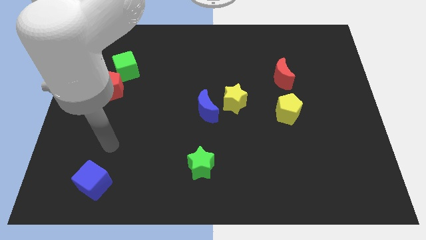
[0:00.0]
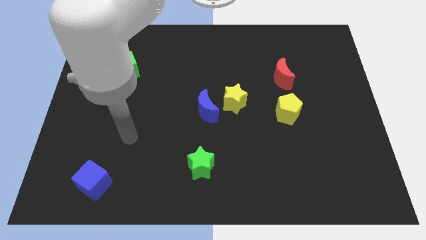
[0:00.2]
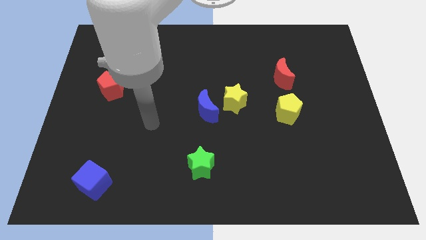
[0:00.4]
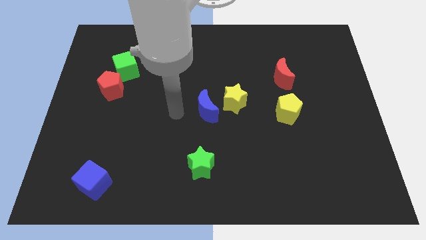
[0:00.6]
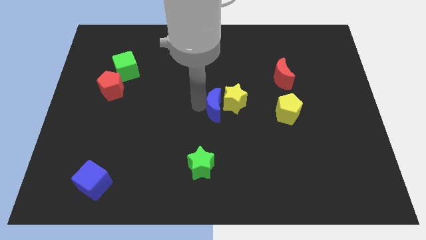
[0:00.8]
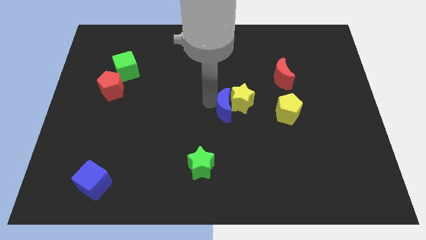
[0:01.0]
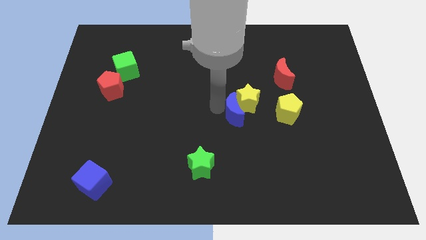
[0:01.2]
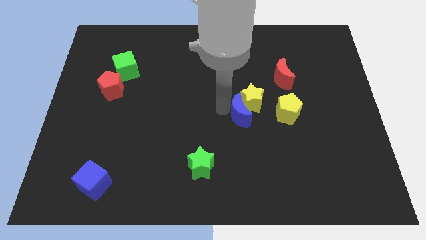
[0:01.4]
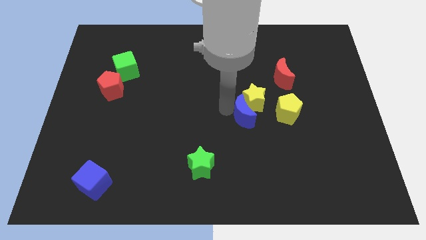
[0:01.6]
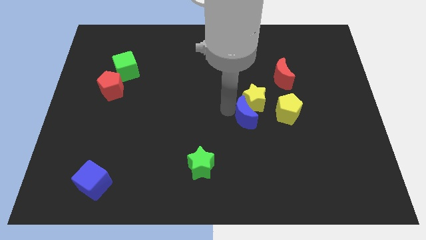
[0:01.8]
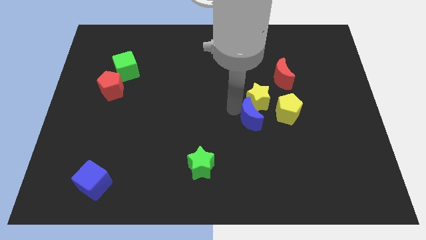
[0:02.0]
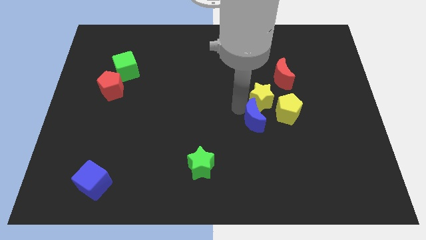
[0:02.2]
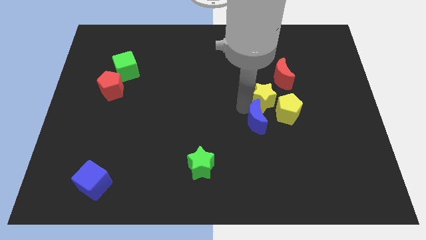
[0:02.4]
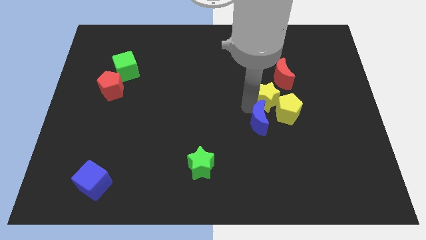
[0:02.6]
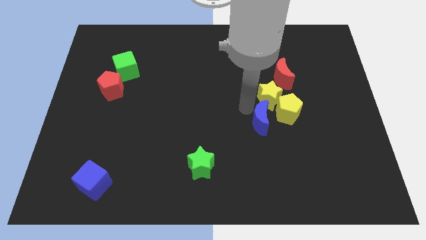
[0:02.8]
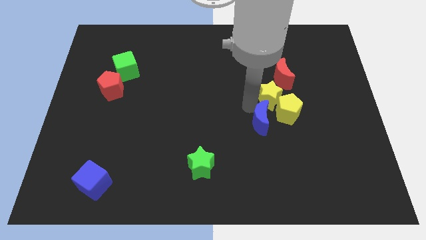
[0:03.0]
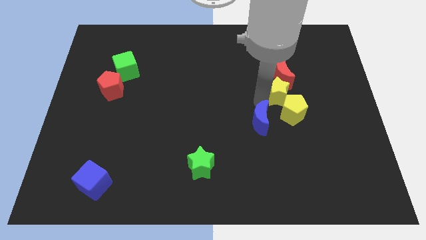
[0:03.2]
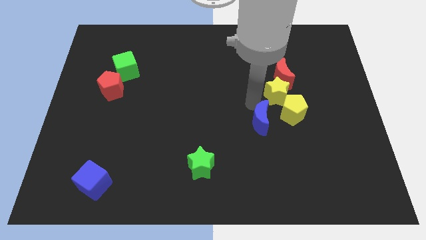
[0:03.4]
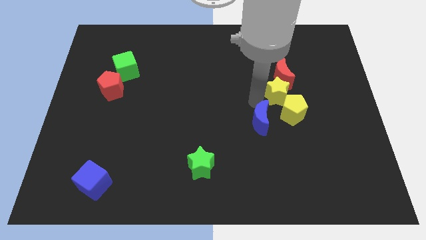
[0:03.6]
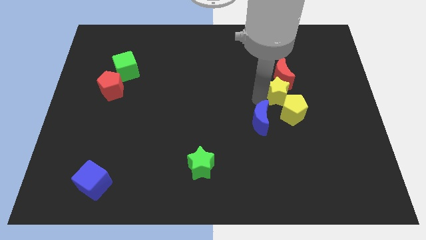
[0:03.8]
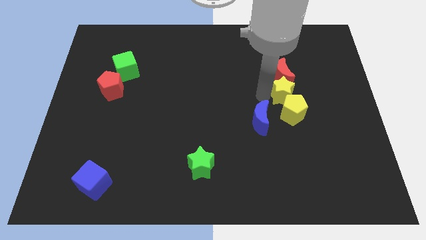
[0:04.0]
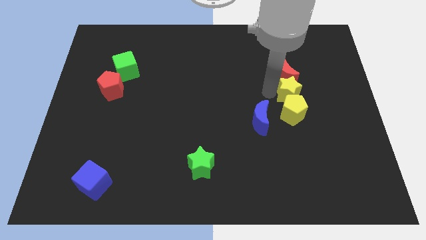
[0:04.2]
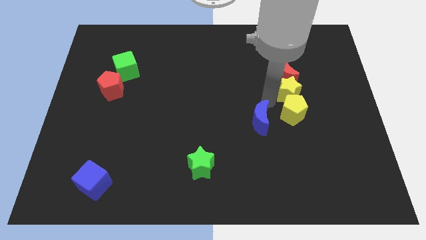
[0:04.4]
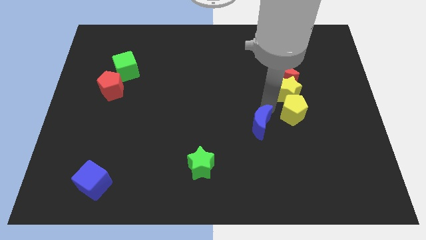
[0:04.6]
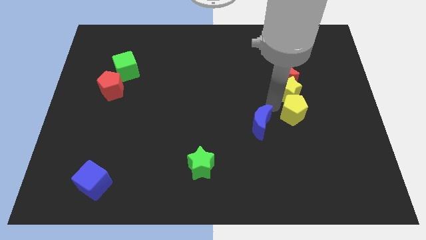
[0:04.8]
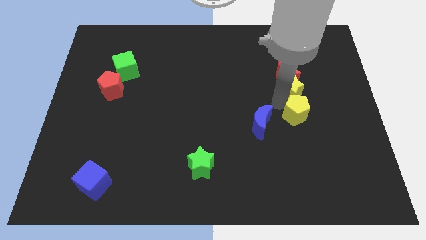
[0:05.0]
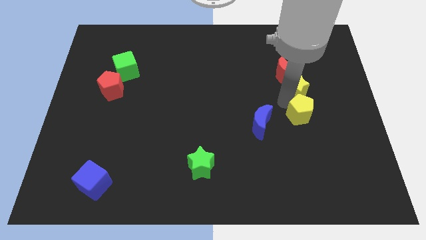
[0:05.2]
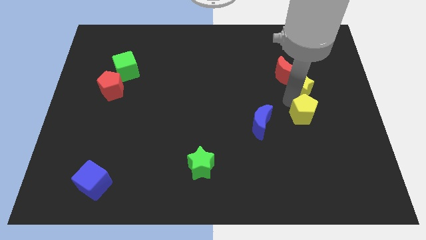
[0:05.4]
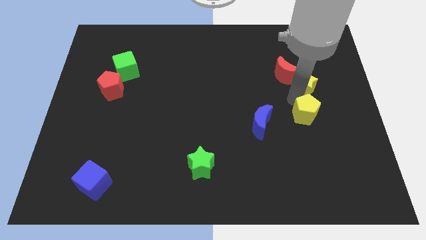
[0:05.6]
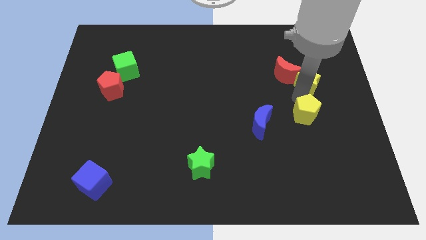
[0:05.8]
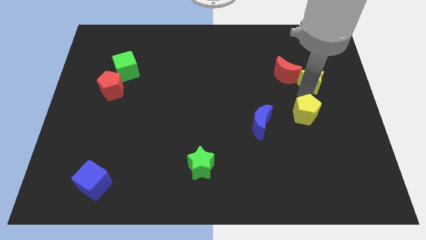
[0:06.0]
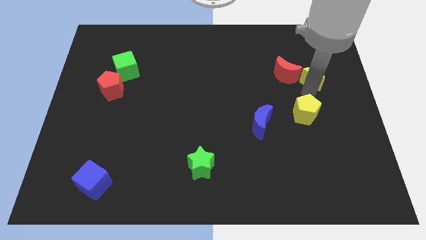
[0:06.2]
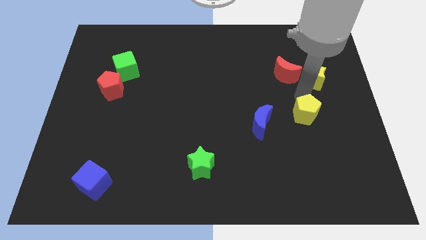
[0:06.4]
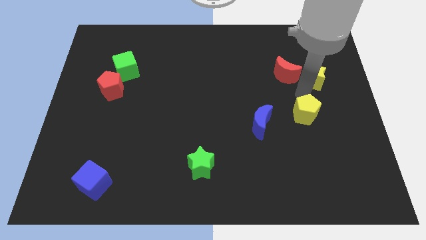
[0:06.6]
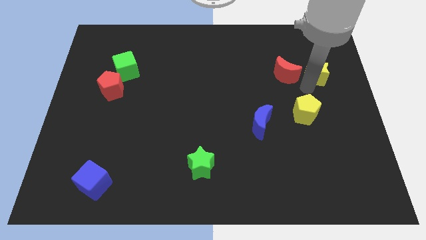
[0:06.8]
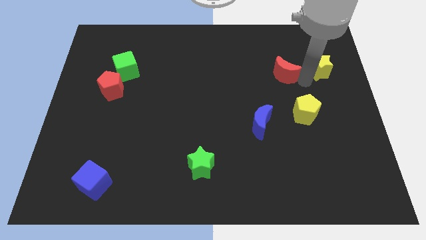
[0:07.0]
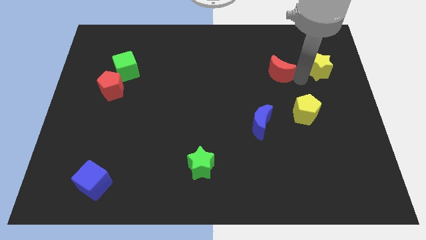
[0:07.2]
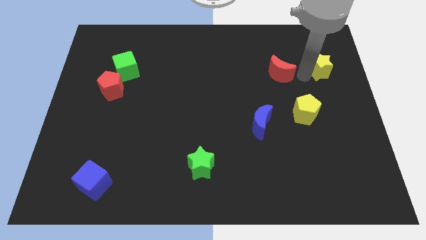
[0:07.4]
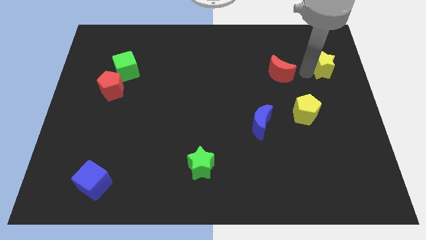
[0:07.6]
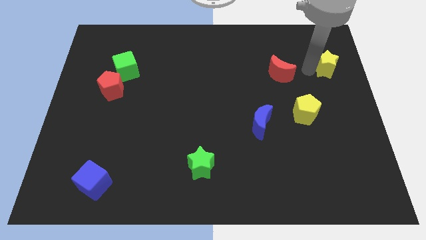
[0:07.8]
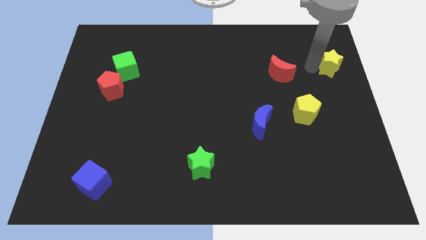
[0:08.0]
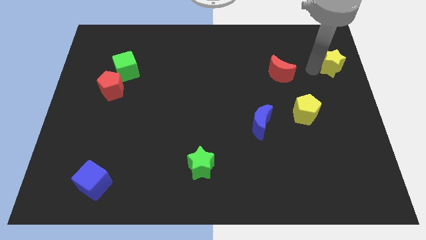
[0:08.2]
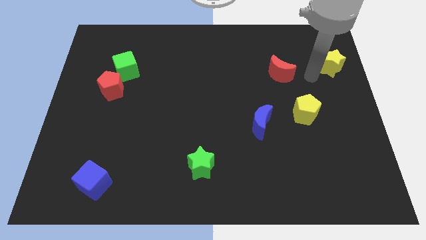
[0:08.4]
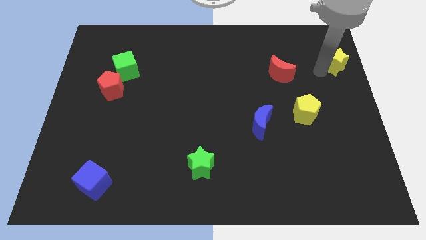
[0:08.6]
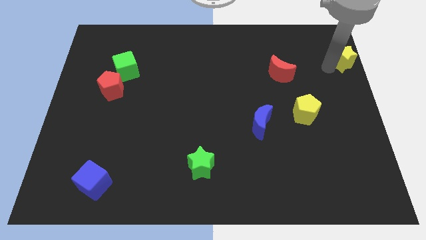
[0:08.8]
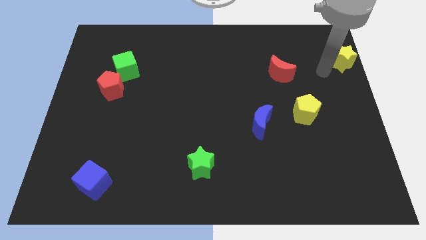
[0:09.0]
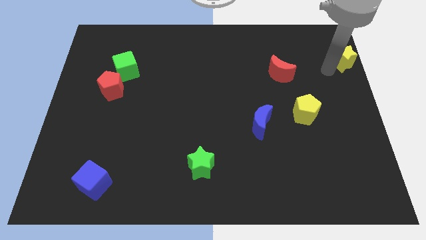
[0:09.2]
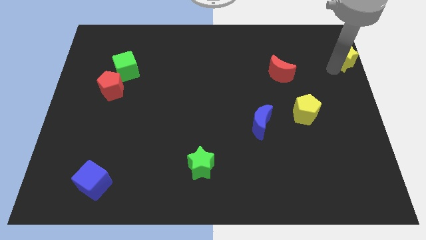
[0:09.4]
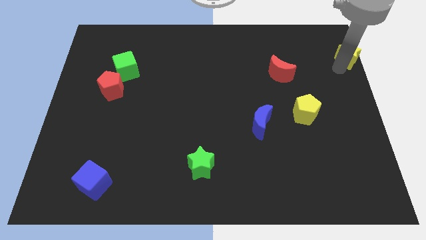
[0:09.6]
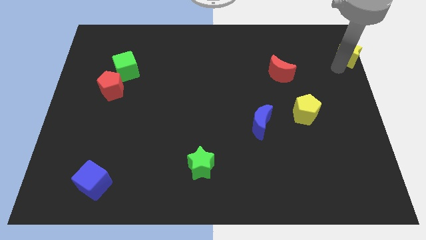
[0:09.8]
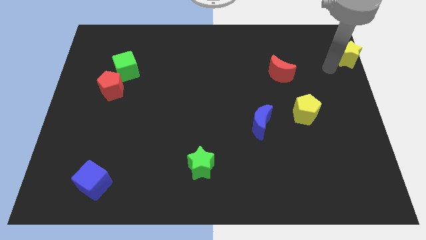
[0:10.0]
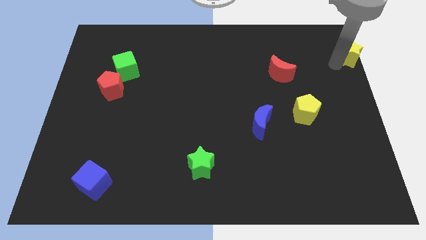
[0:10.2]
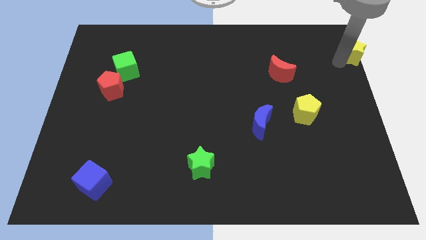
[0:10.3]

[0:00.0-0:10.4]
move the yellow star to the top right corner
